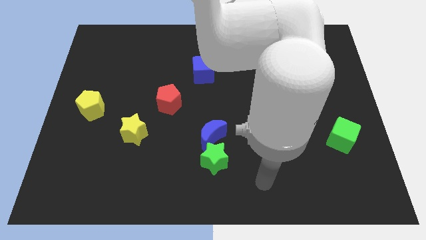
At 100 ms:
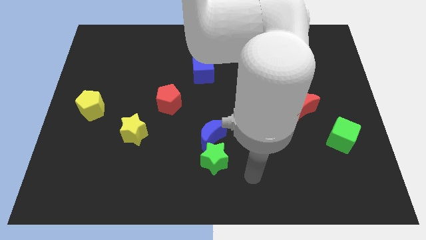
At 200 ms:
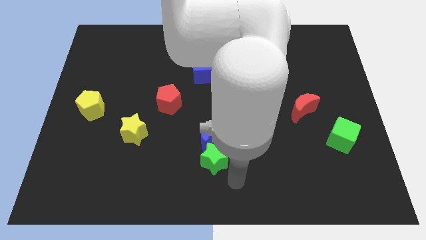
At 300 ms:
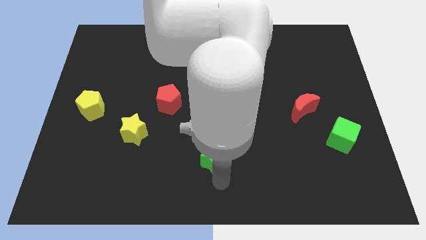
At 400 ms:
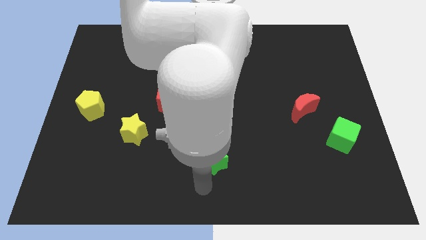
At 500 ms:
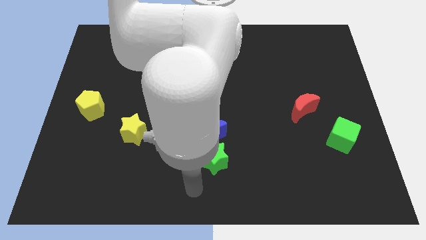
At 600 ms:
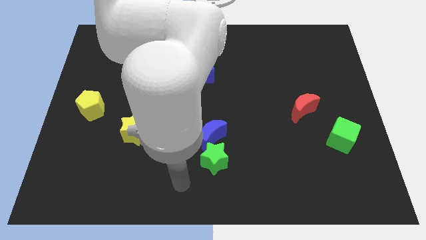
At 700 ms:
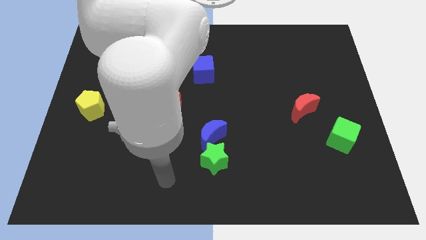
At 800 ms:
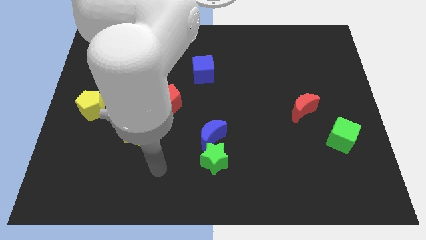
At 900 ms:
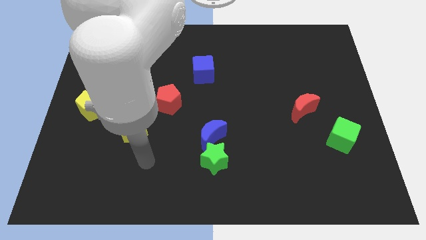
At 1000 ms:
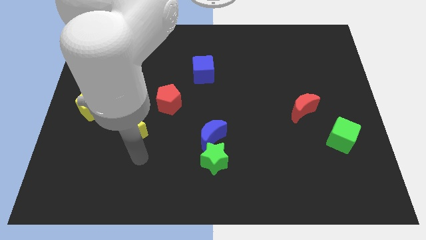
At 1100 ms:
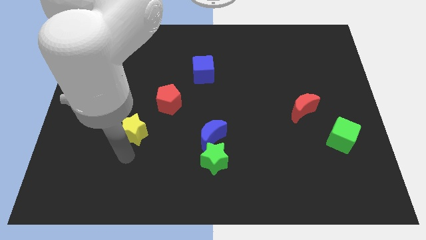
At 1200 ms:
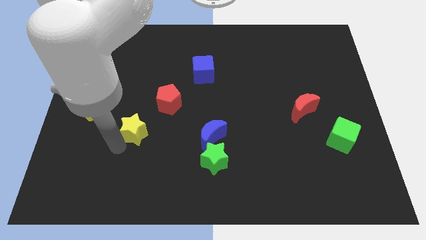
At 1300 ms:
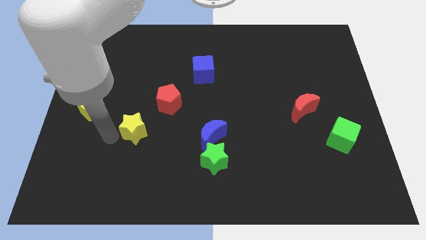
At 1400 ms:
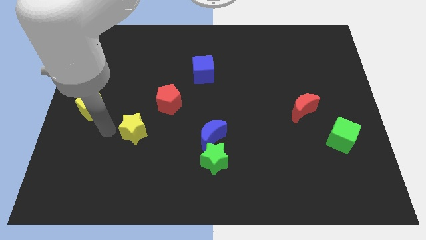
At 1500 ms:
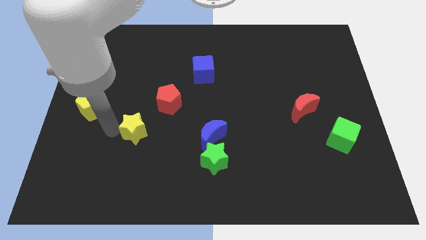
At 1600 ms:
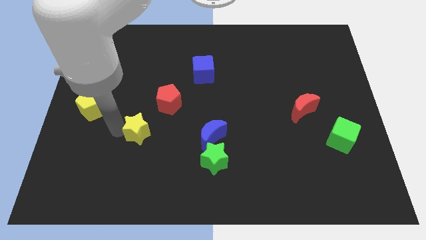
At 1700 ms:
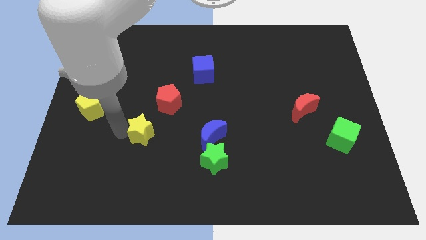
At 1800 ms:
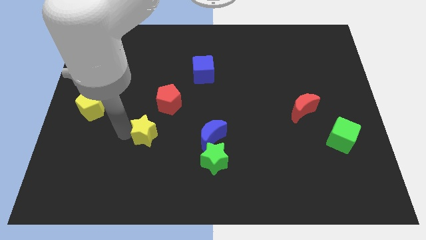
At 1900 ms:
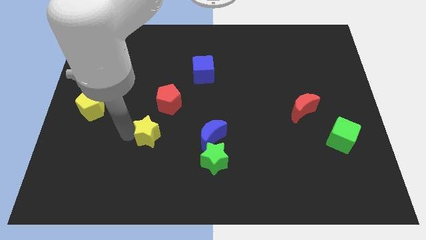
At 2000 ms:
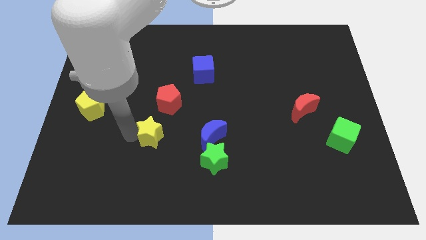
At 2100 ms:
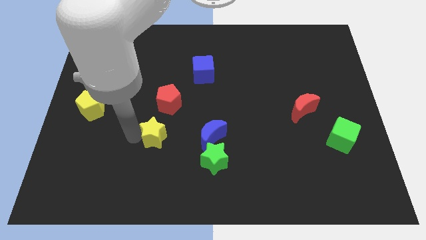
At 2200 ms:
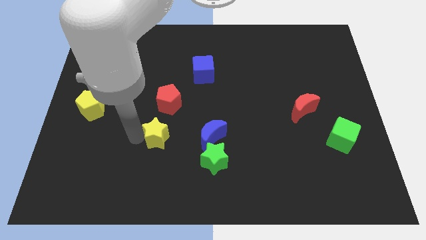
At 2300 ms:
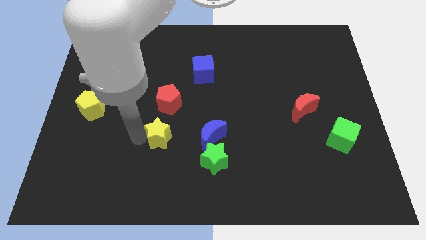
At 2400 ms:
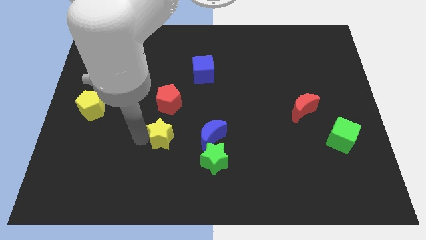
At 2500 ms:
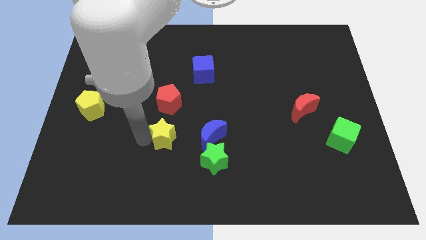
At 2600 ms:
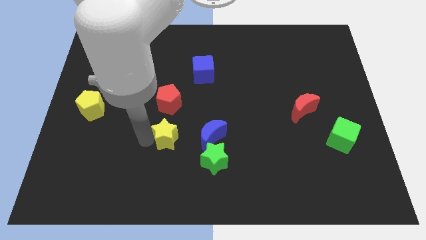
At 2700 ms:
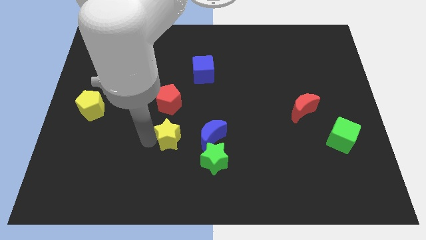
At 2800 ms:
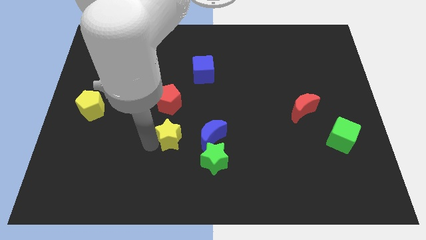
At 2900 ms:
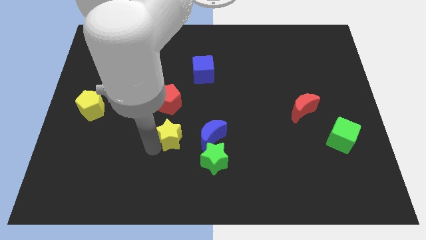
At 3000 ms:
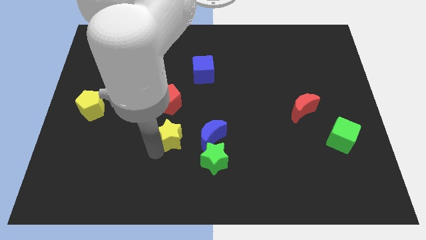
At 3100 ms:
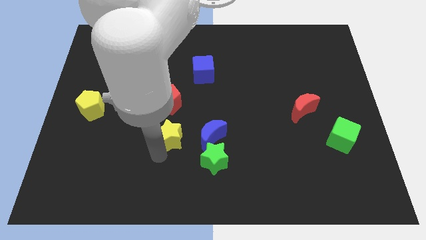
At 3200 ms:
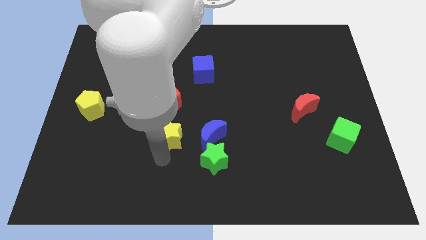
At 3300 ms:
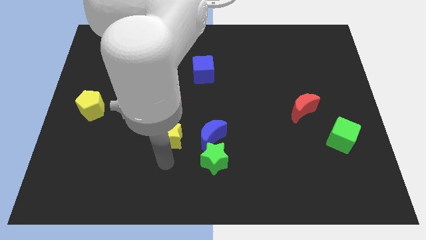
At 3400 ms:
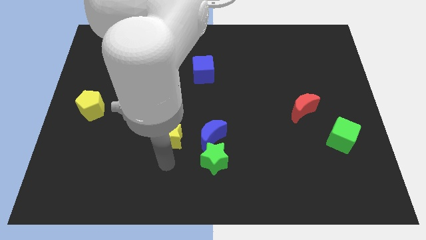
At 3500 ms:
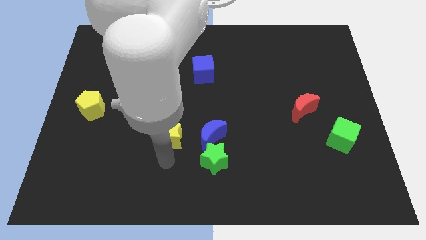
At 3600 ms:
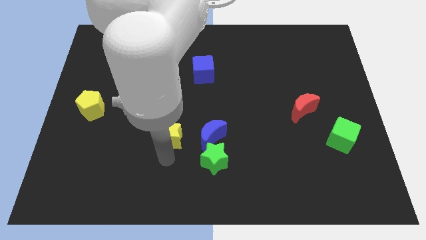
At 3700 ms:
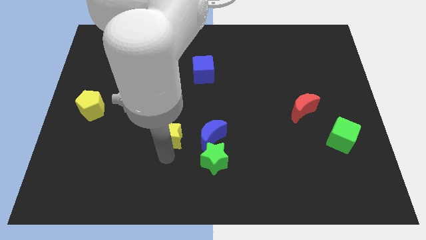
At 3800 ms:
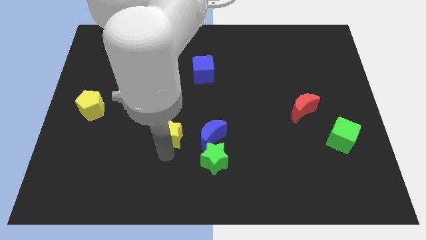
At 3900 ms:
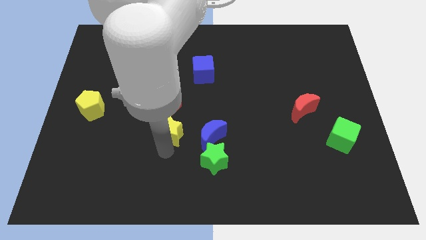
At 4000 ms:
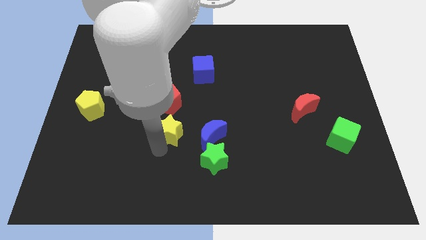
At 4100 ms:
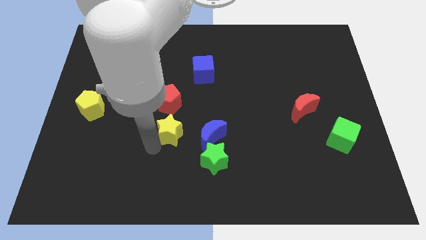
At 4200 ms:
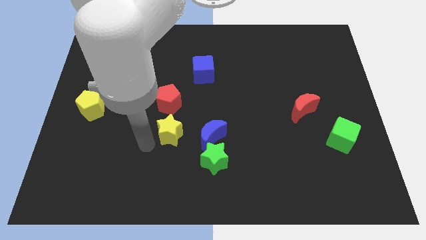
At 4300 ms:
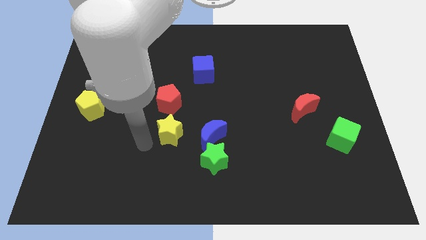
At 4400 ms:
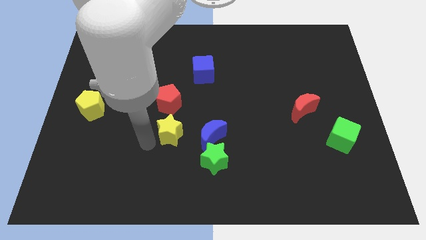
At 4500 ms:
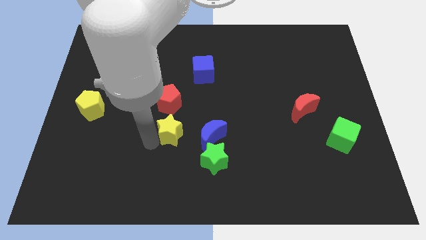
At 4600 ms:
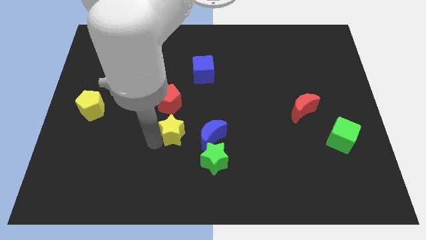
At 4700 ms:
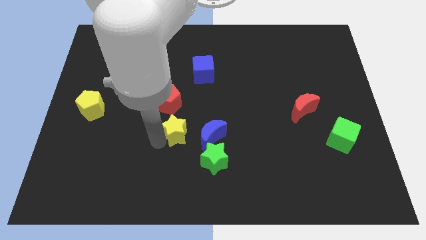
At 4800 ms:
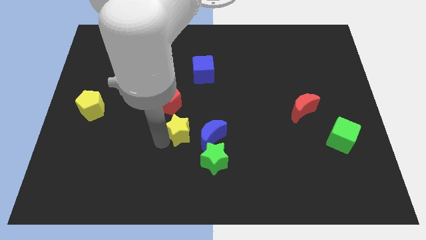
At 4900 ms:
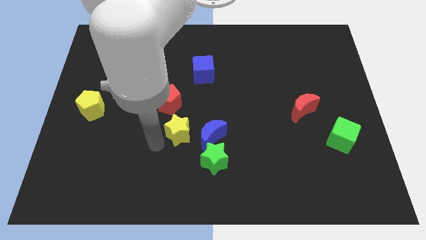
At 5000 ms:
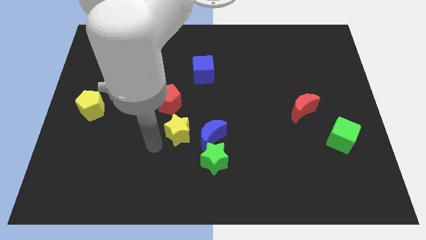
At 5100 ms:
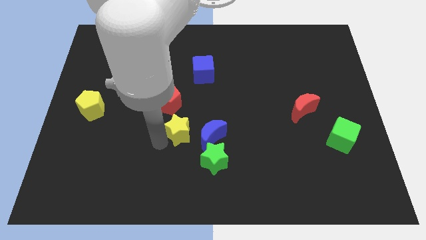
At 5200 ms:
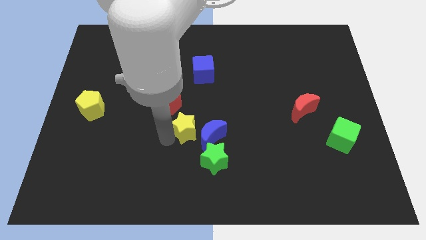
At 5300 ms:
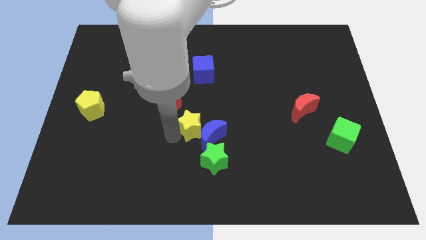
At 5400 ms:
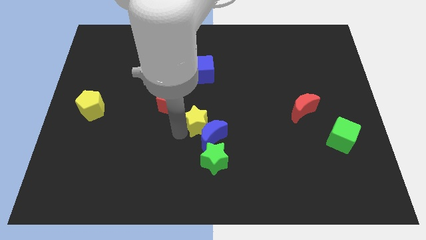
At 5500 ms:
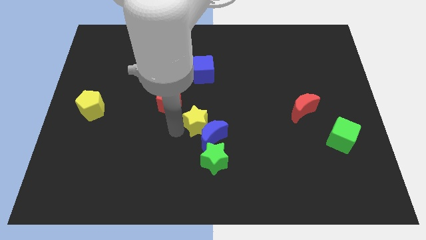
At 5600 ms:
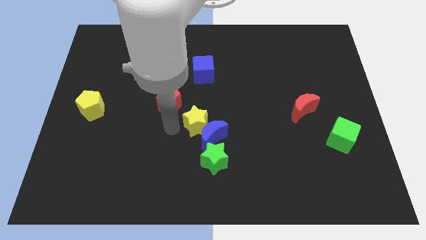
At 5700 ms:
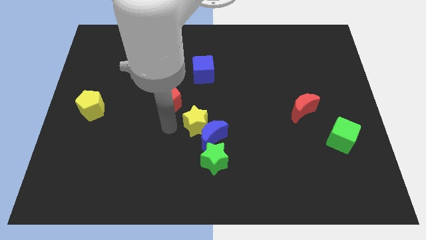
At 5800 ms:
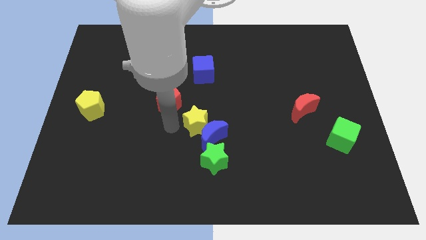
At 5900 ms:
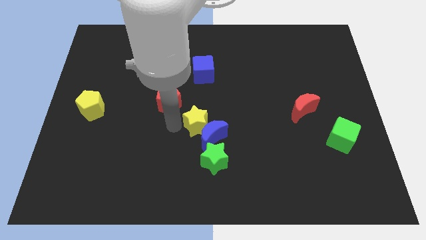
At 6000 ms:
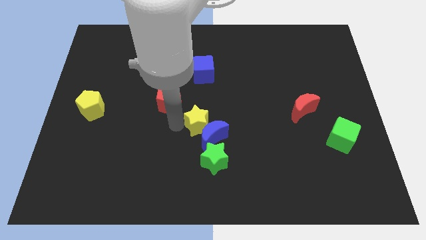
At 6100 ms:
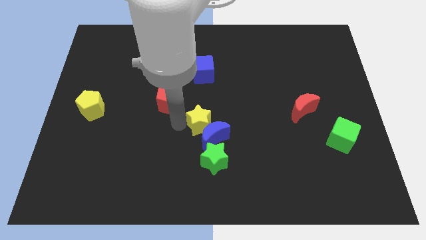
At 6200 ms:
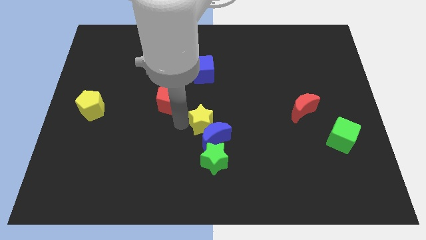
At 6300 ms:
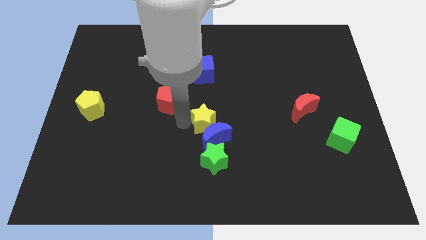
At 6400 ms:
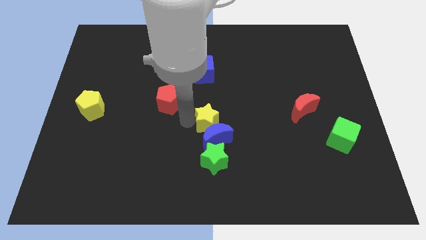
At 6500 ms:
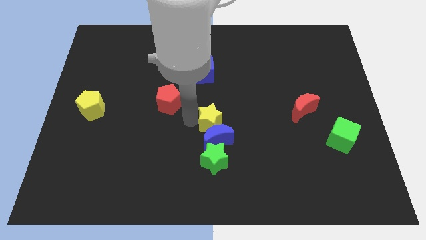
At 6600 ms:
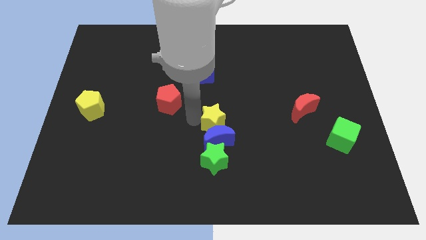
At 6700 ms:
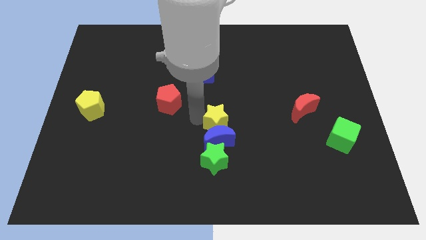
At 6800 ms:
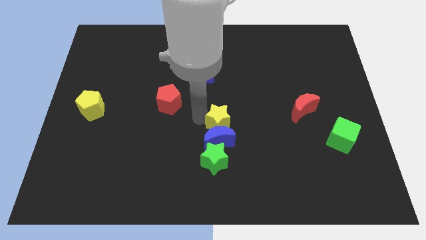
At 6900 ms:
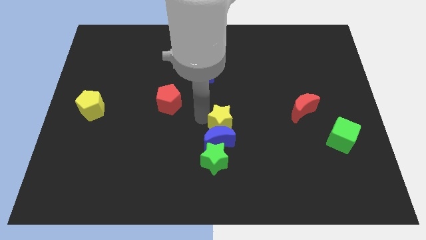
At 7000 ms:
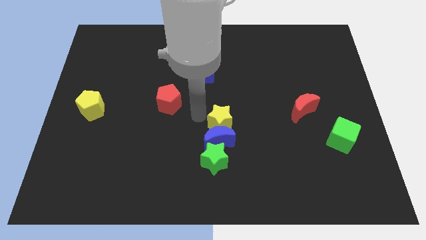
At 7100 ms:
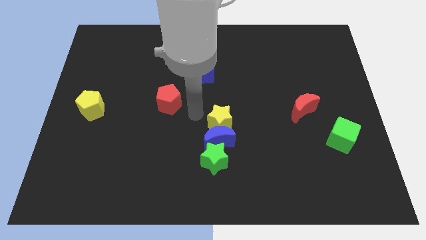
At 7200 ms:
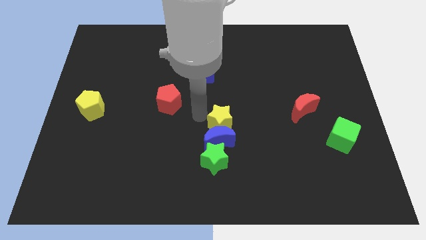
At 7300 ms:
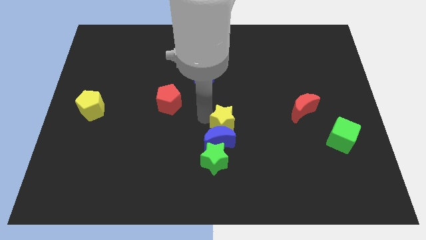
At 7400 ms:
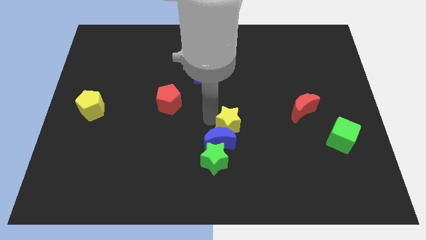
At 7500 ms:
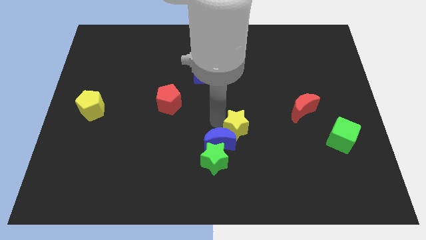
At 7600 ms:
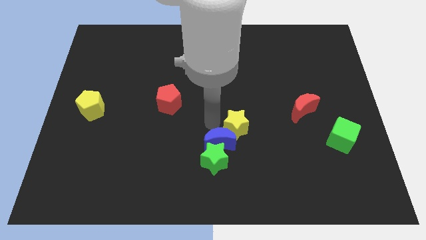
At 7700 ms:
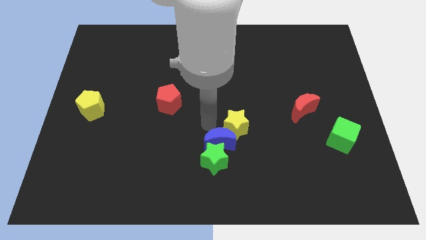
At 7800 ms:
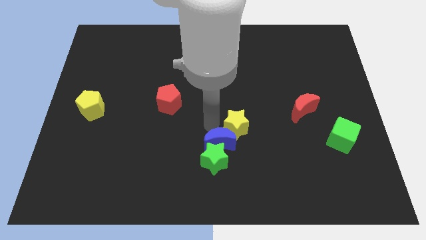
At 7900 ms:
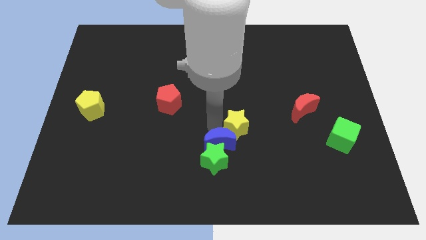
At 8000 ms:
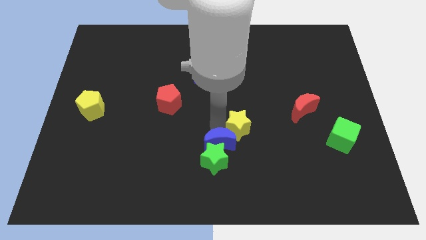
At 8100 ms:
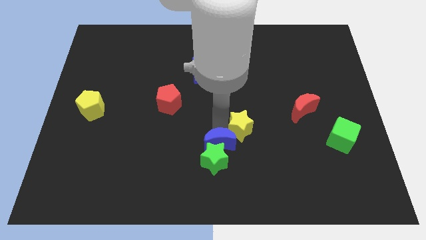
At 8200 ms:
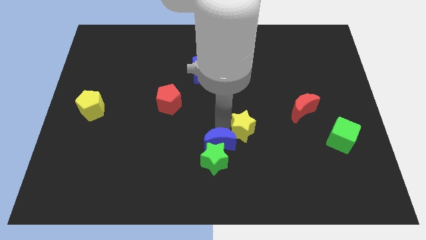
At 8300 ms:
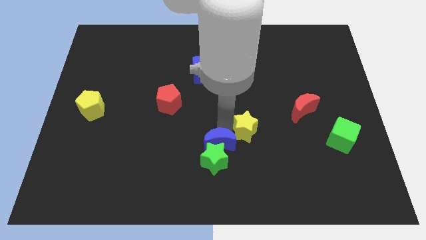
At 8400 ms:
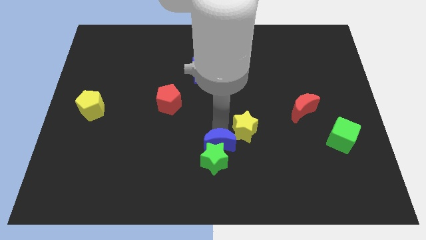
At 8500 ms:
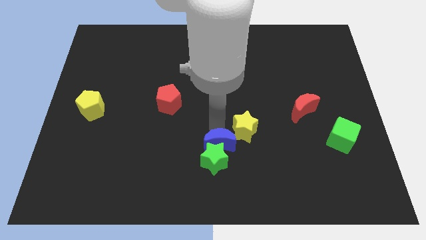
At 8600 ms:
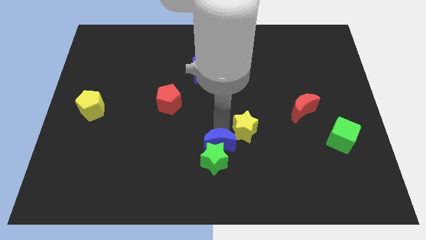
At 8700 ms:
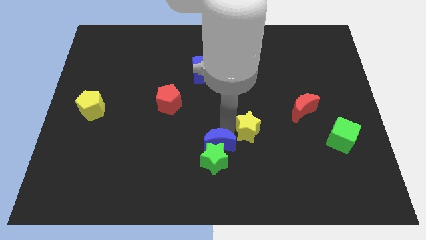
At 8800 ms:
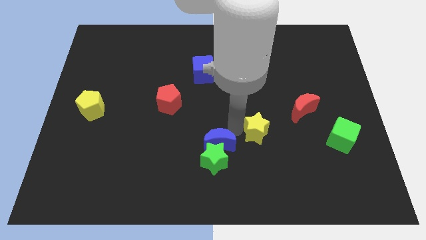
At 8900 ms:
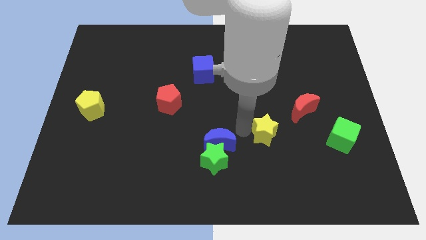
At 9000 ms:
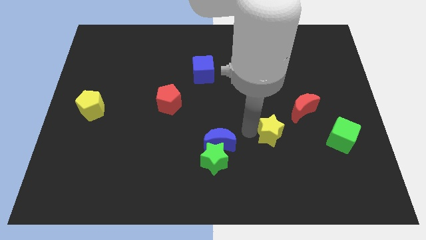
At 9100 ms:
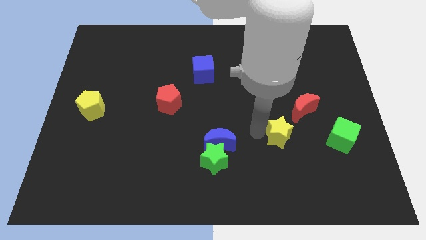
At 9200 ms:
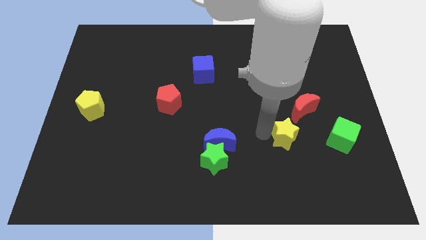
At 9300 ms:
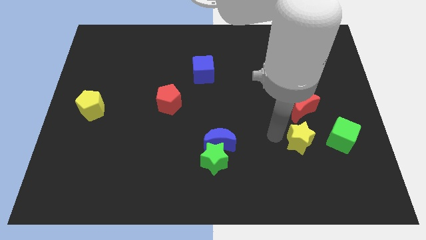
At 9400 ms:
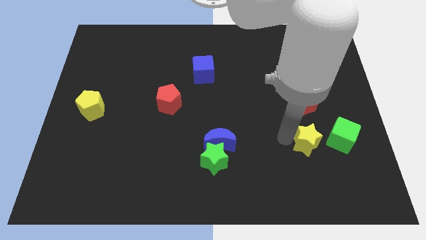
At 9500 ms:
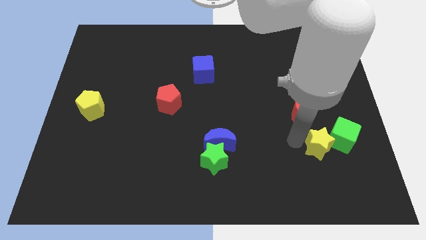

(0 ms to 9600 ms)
put the yellow star towards the green cube
